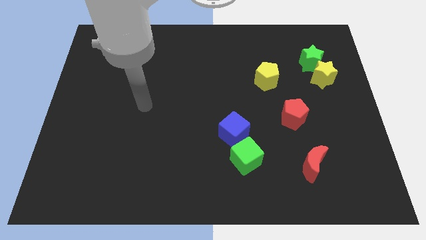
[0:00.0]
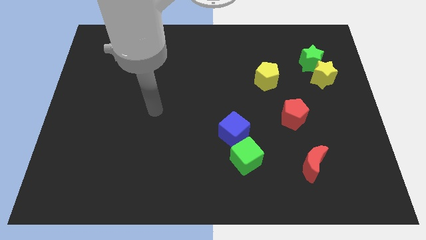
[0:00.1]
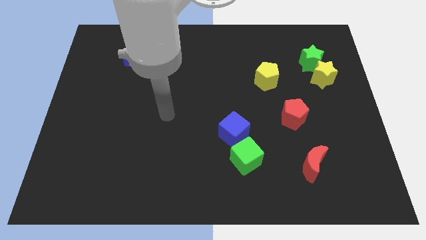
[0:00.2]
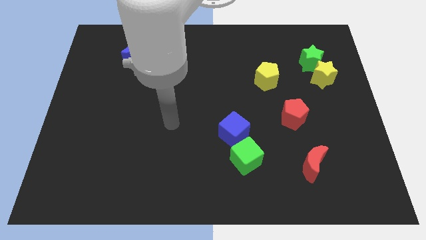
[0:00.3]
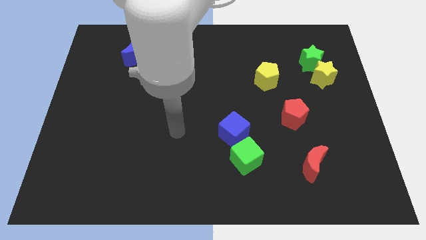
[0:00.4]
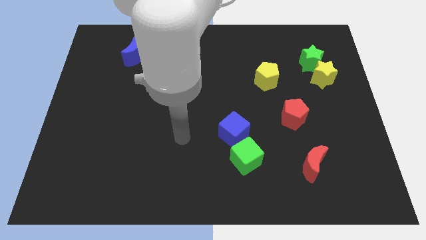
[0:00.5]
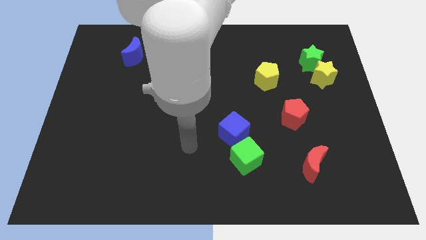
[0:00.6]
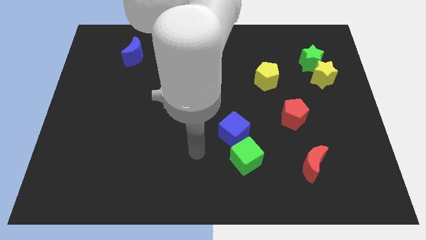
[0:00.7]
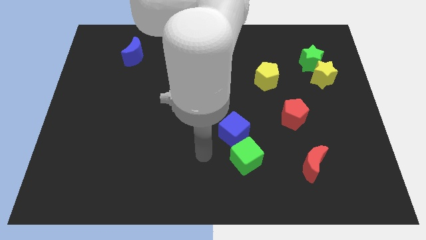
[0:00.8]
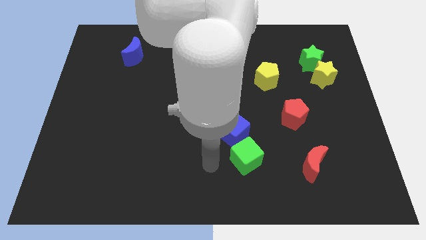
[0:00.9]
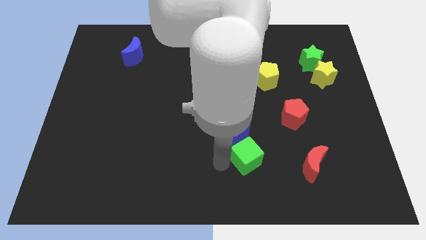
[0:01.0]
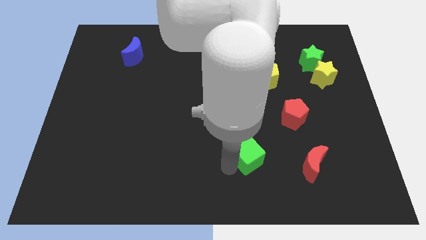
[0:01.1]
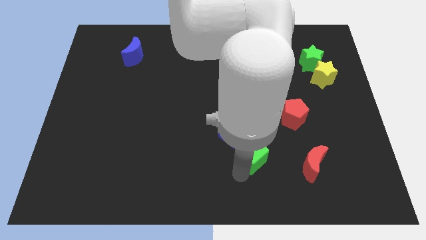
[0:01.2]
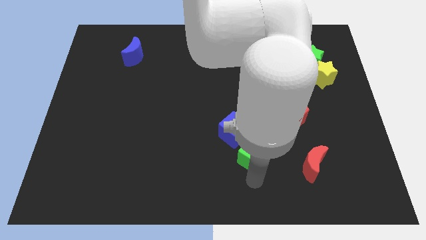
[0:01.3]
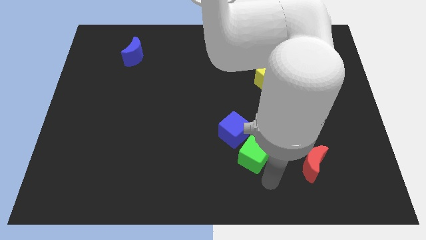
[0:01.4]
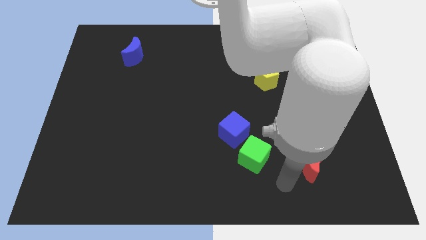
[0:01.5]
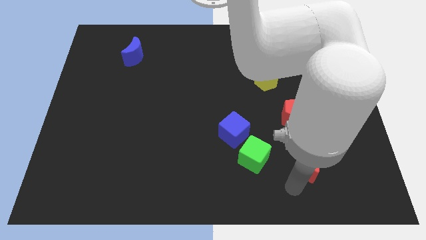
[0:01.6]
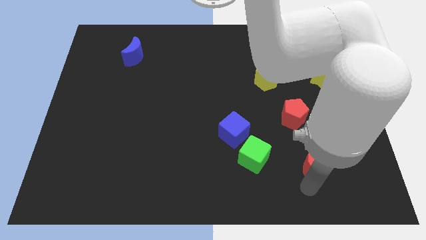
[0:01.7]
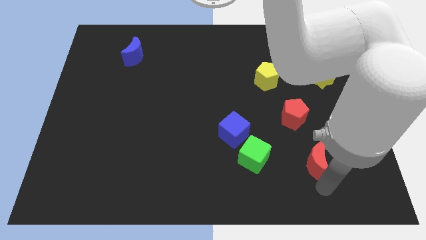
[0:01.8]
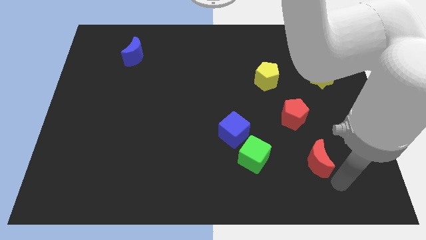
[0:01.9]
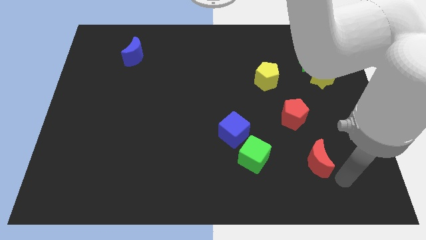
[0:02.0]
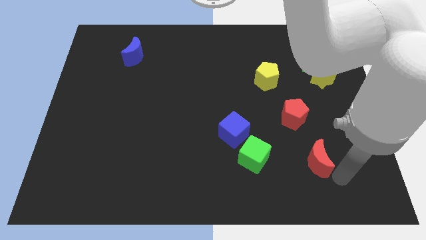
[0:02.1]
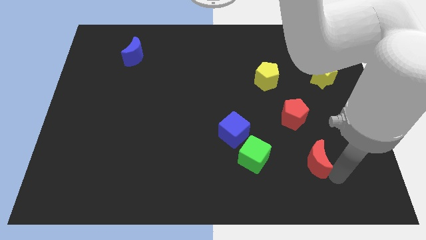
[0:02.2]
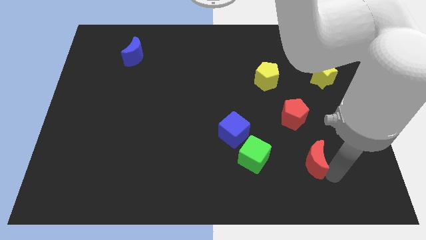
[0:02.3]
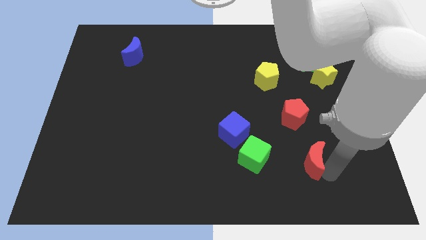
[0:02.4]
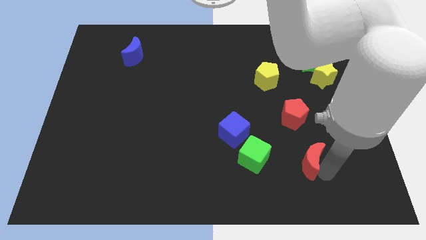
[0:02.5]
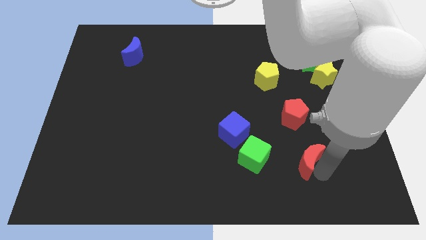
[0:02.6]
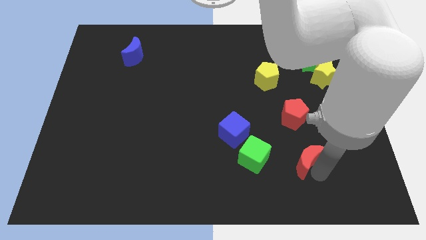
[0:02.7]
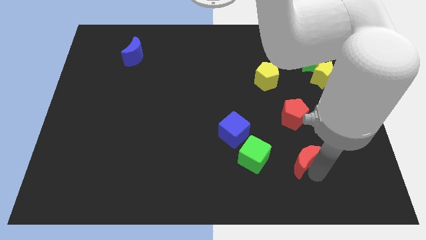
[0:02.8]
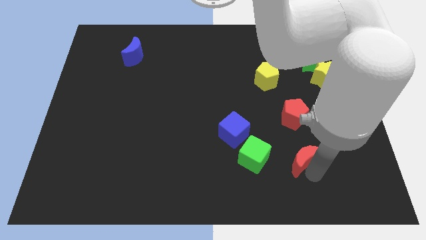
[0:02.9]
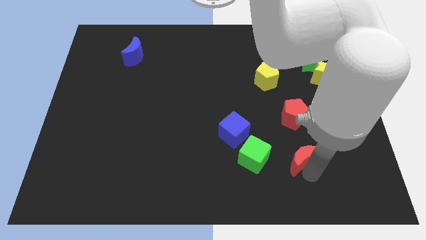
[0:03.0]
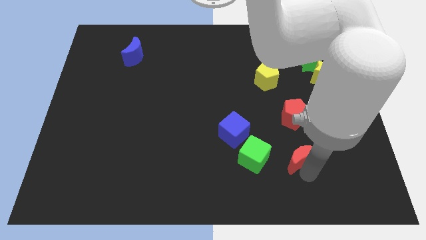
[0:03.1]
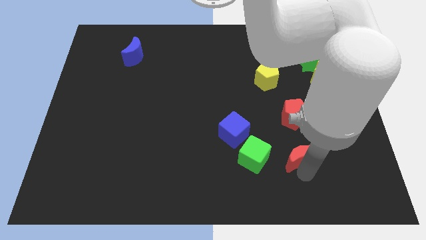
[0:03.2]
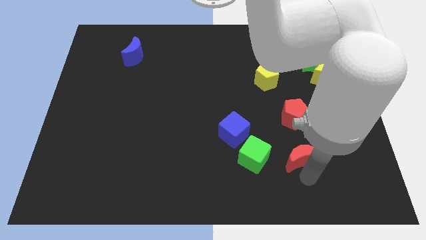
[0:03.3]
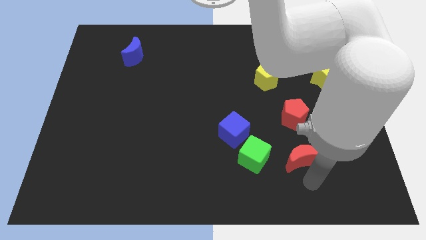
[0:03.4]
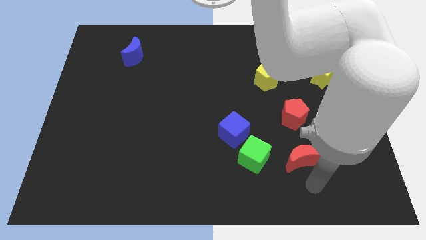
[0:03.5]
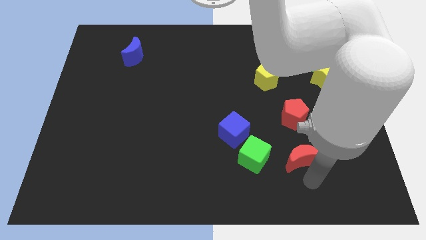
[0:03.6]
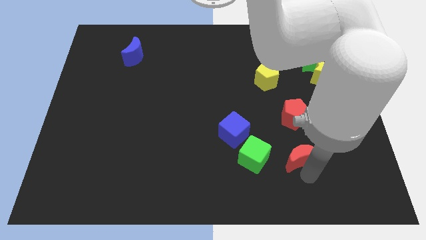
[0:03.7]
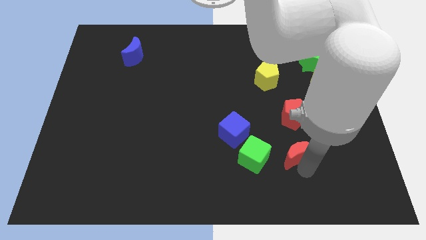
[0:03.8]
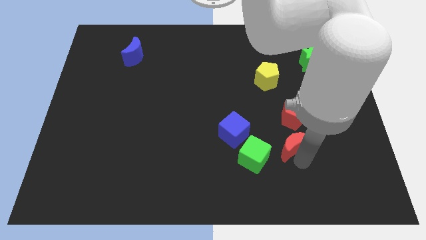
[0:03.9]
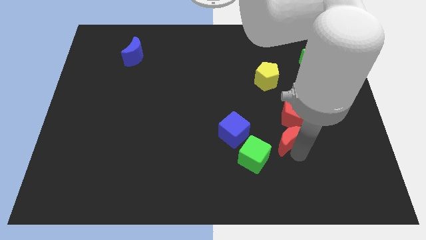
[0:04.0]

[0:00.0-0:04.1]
slightly move the red moon up and left

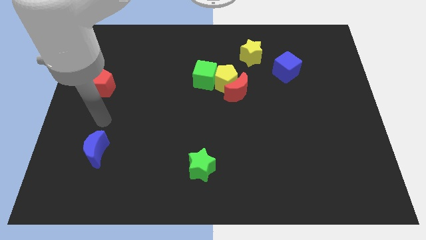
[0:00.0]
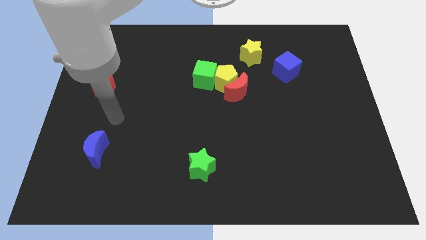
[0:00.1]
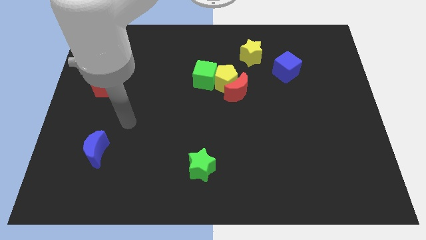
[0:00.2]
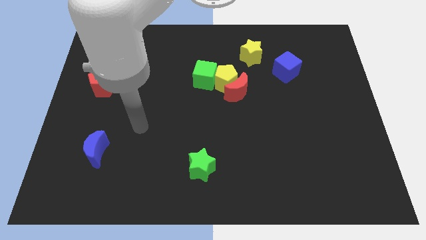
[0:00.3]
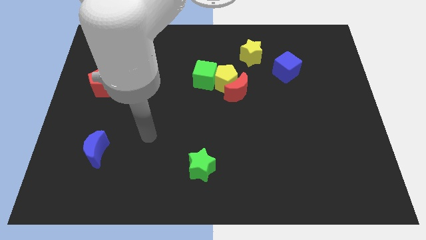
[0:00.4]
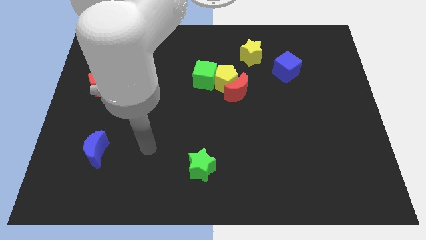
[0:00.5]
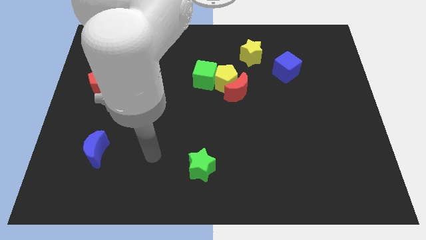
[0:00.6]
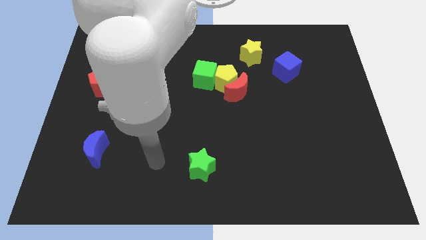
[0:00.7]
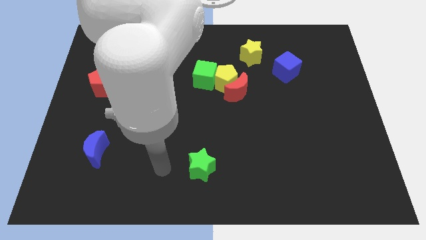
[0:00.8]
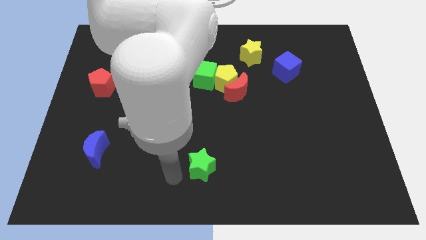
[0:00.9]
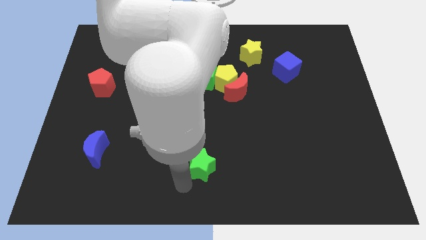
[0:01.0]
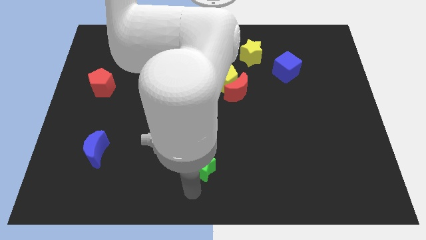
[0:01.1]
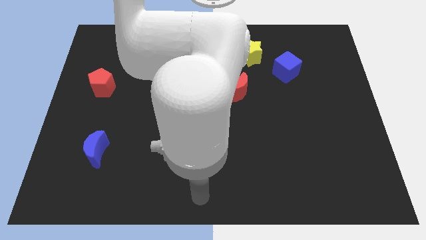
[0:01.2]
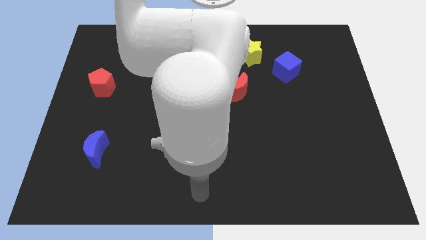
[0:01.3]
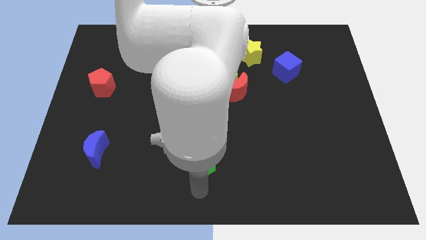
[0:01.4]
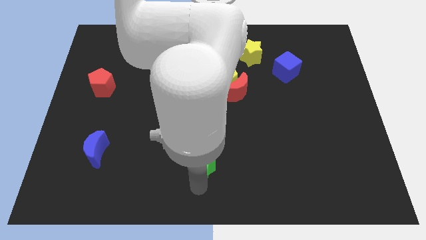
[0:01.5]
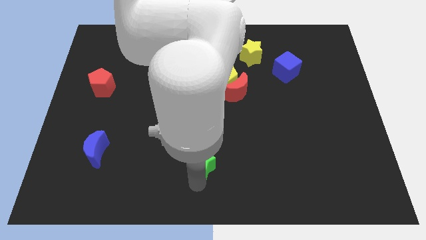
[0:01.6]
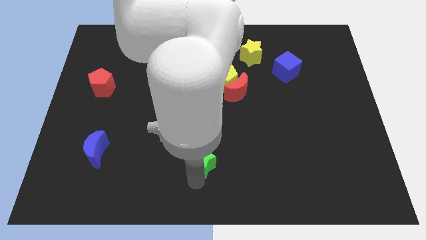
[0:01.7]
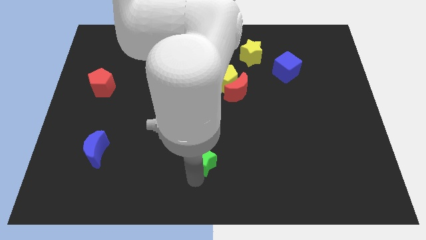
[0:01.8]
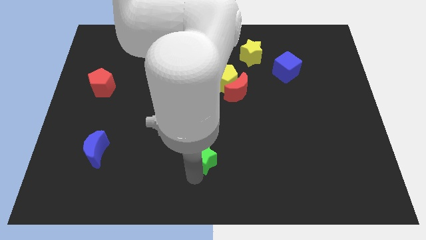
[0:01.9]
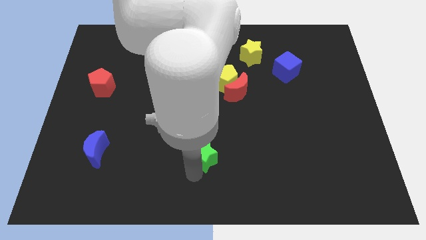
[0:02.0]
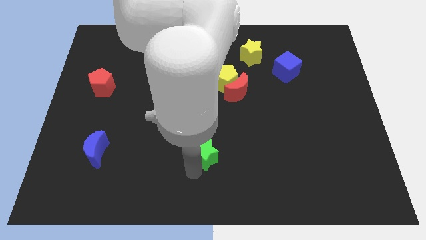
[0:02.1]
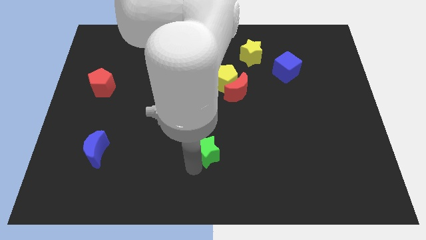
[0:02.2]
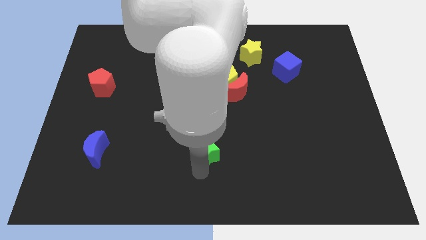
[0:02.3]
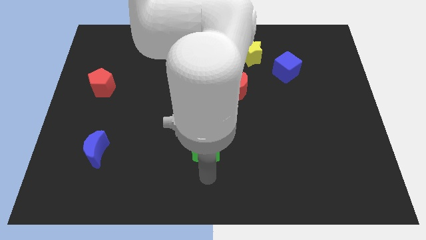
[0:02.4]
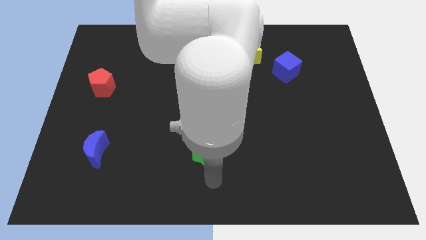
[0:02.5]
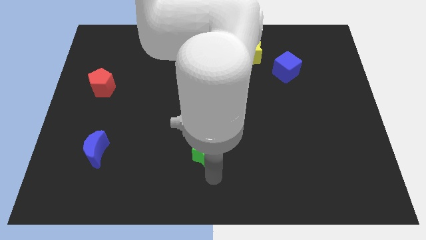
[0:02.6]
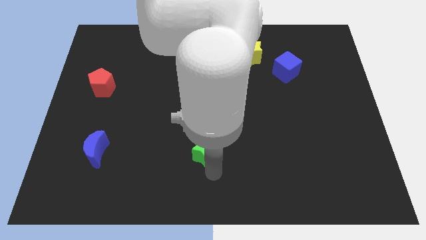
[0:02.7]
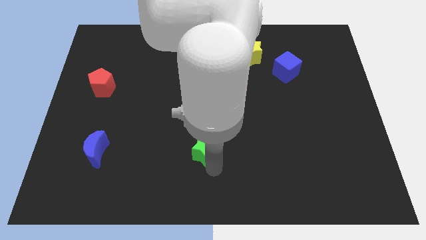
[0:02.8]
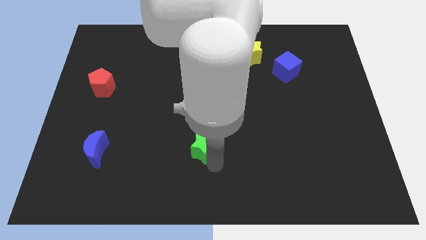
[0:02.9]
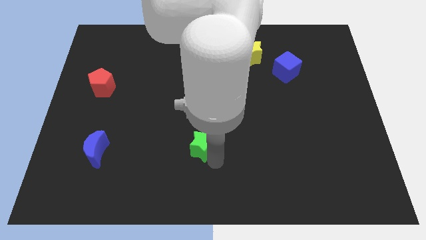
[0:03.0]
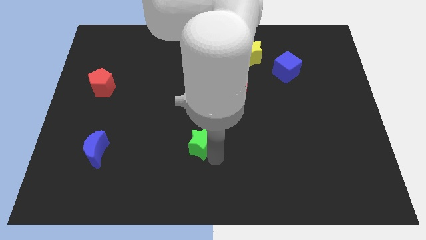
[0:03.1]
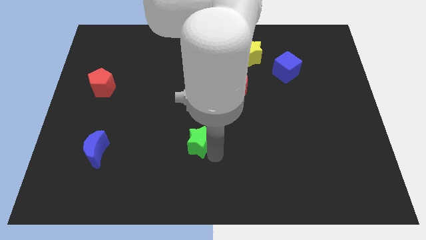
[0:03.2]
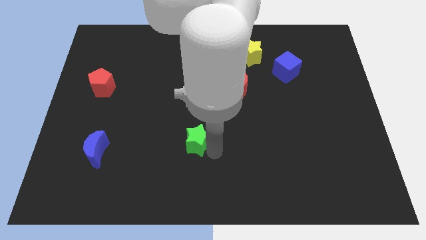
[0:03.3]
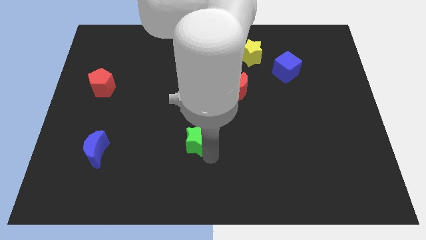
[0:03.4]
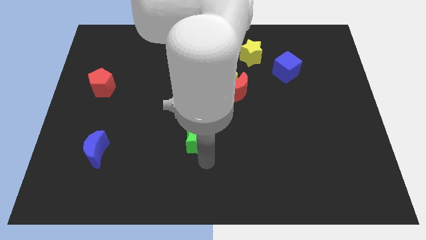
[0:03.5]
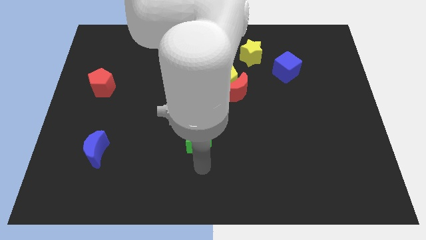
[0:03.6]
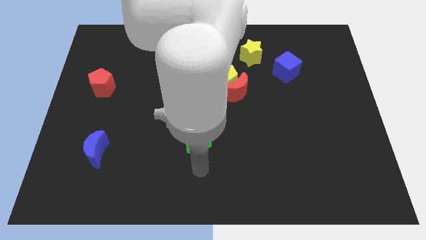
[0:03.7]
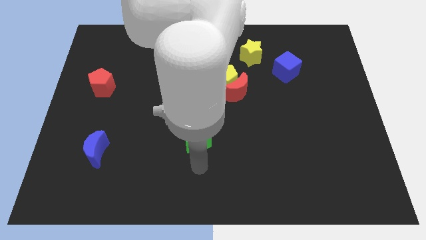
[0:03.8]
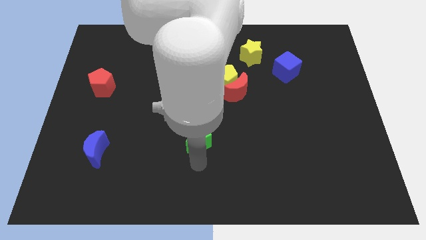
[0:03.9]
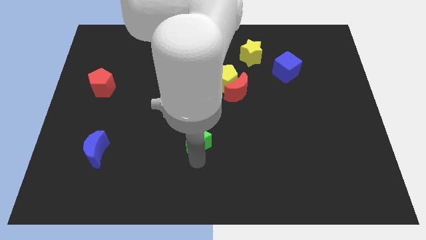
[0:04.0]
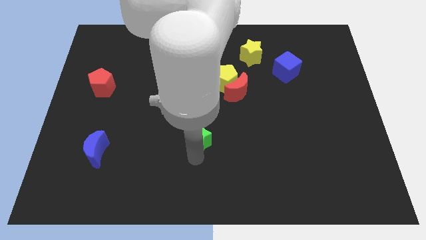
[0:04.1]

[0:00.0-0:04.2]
slide the green star upwards a bit
